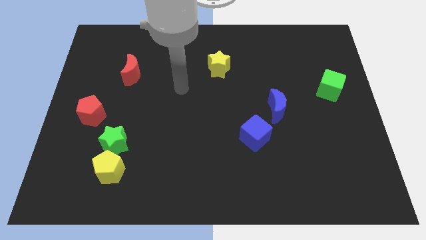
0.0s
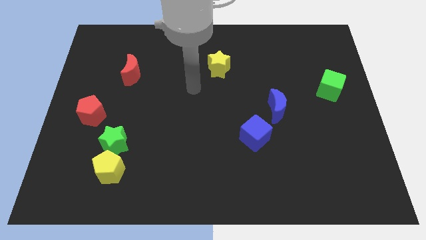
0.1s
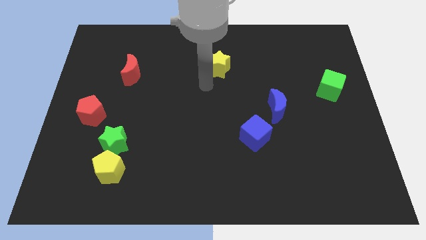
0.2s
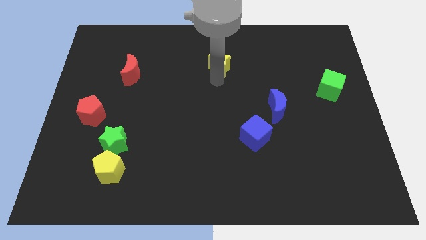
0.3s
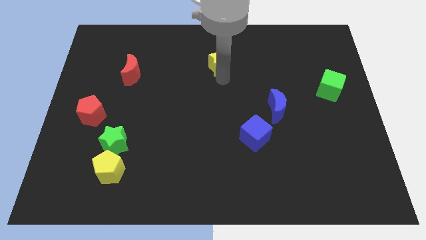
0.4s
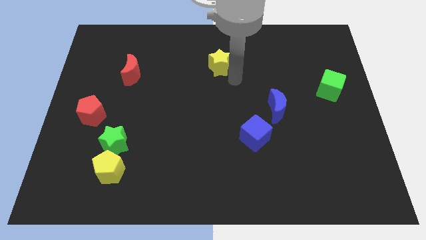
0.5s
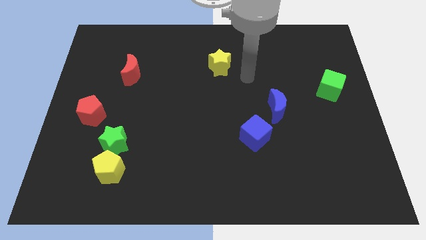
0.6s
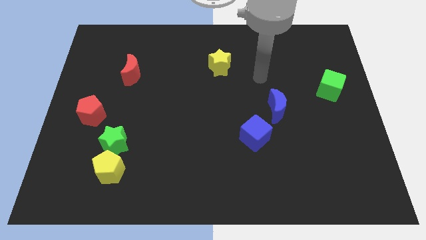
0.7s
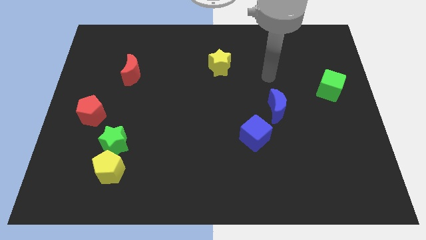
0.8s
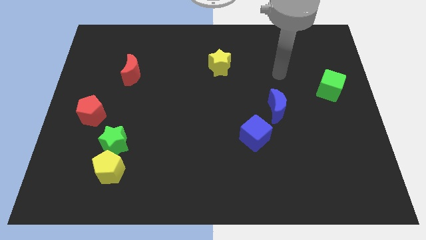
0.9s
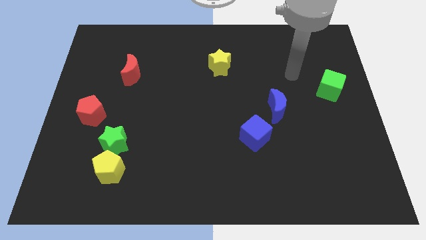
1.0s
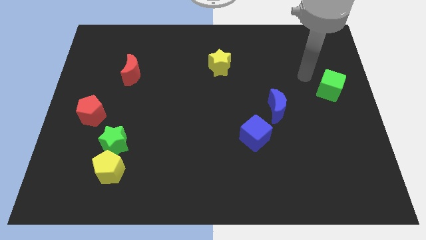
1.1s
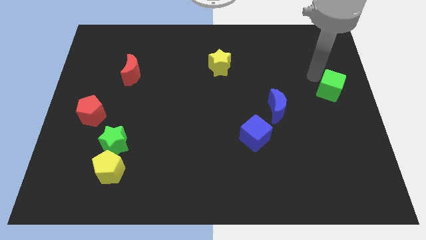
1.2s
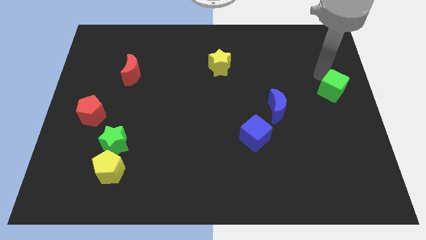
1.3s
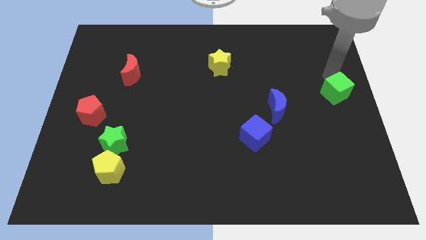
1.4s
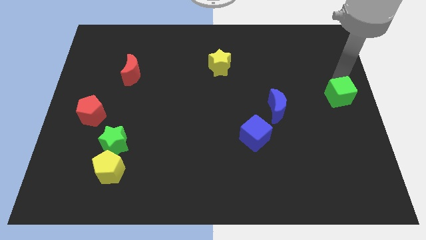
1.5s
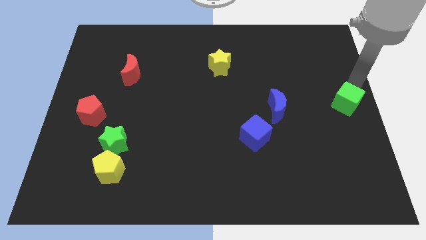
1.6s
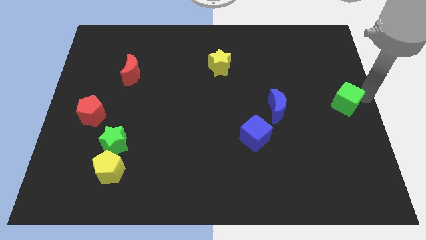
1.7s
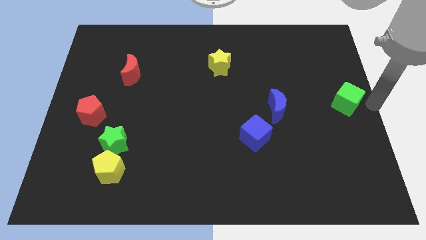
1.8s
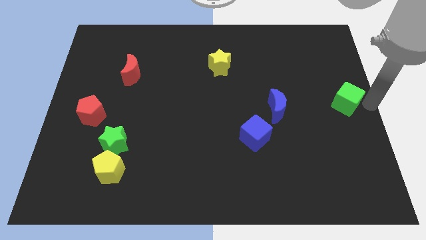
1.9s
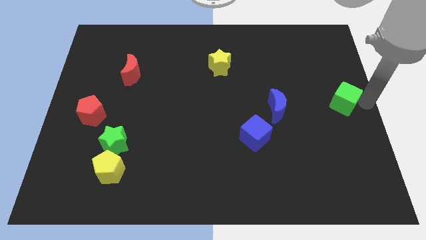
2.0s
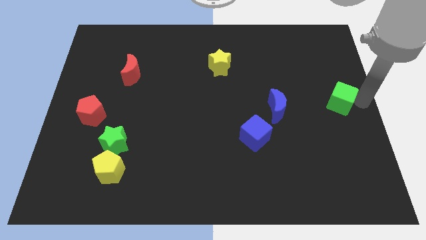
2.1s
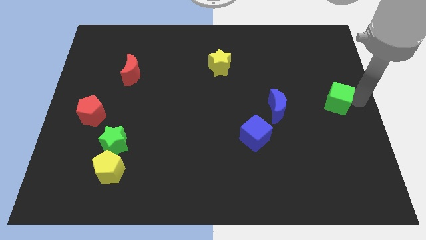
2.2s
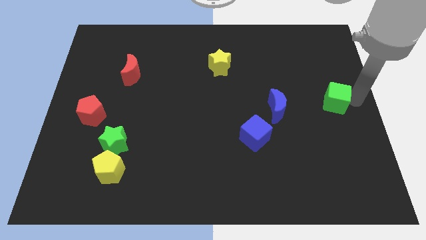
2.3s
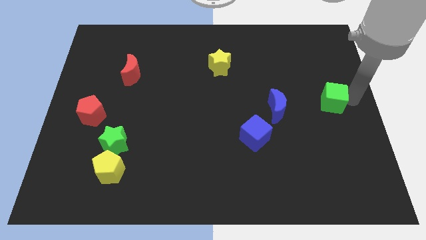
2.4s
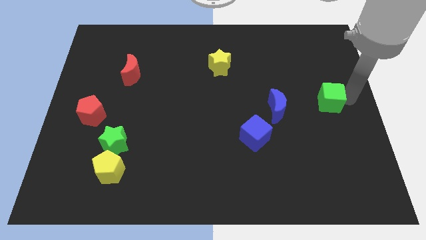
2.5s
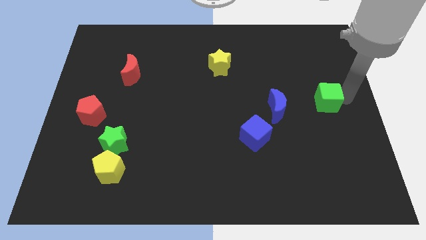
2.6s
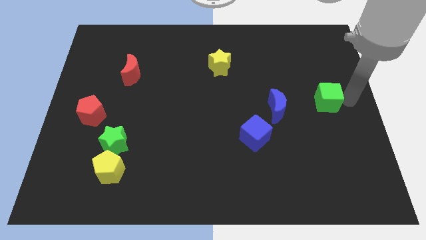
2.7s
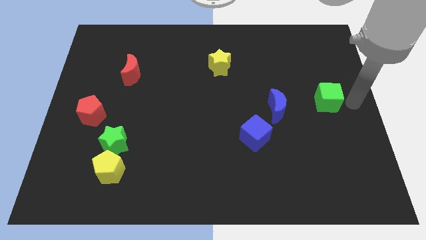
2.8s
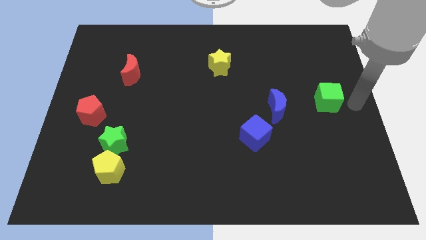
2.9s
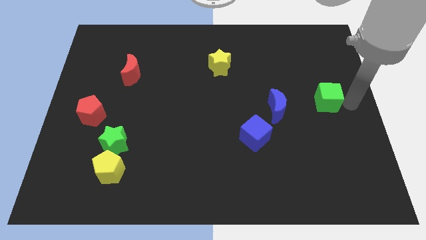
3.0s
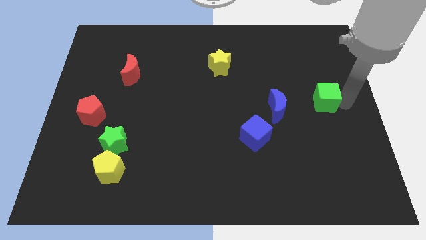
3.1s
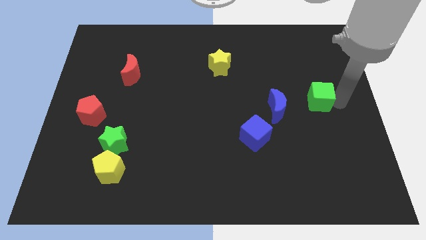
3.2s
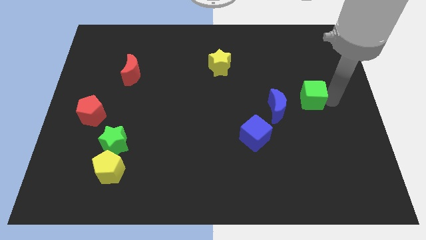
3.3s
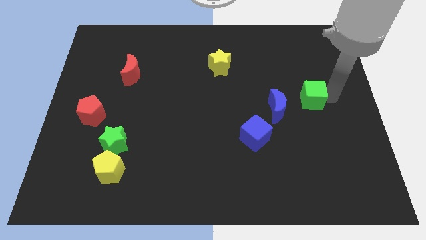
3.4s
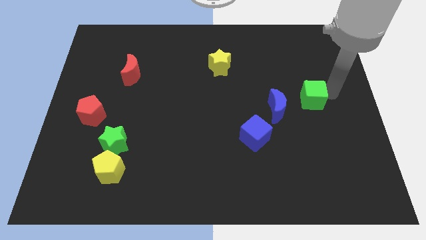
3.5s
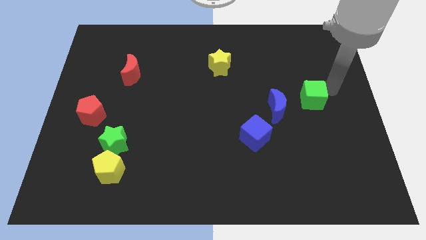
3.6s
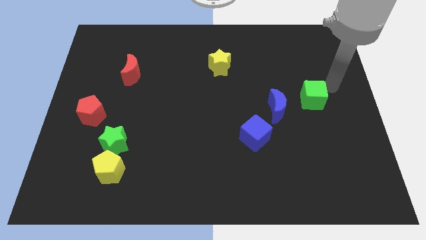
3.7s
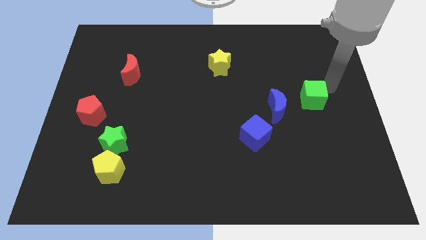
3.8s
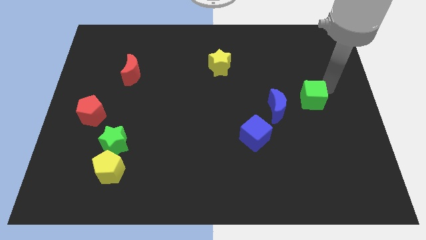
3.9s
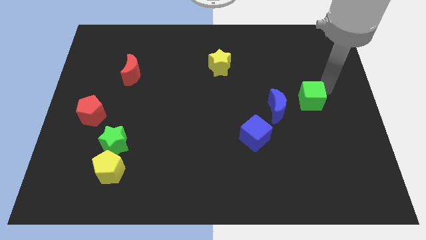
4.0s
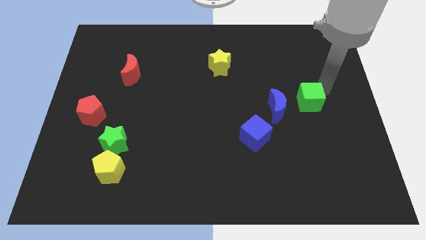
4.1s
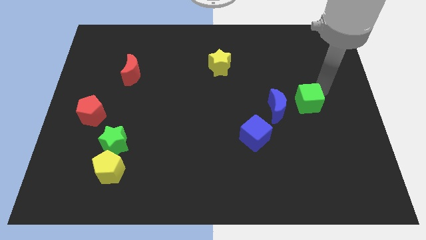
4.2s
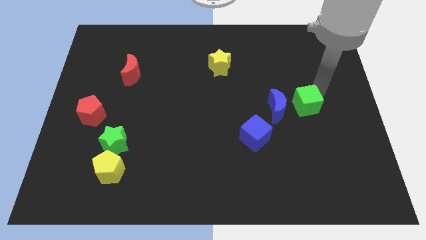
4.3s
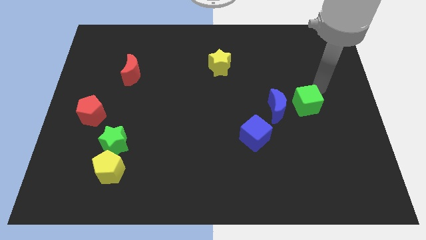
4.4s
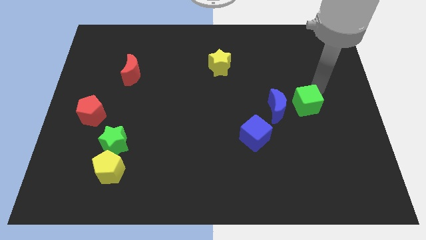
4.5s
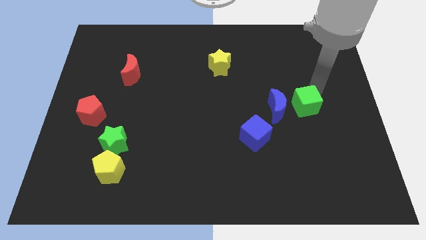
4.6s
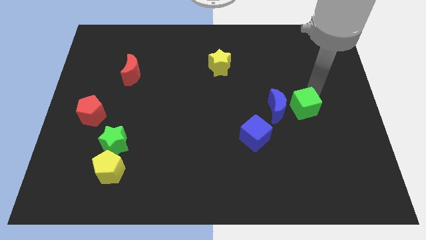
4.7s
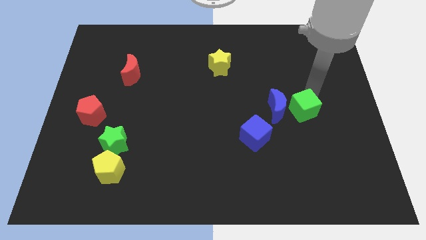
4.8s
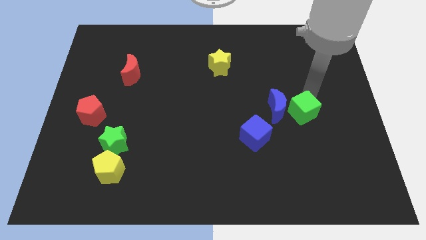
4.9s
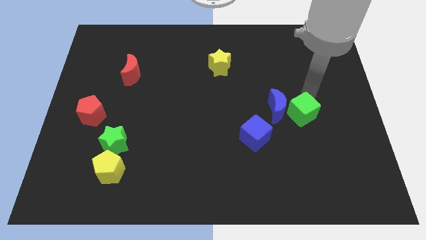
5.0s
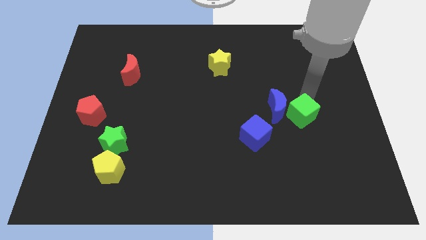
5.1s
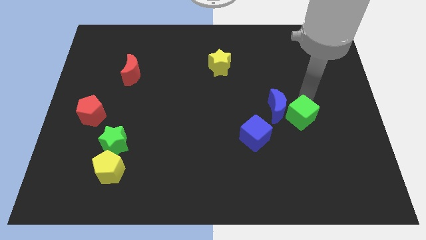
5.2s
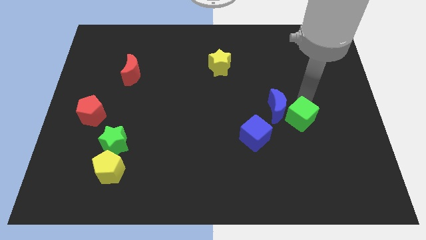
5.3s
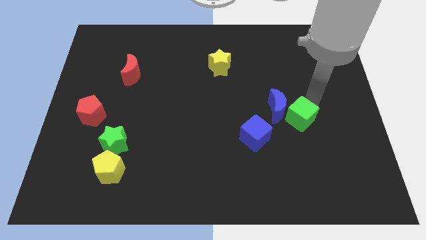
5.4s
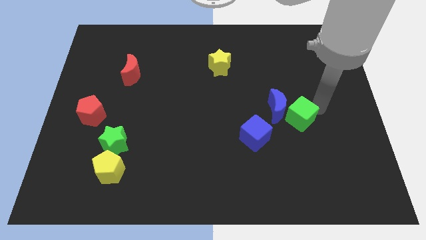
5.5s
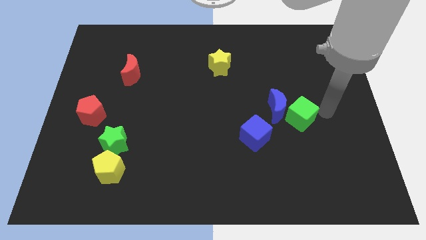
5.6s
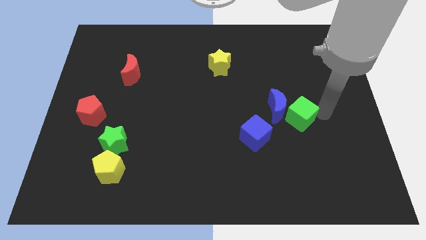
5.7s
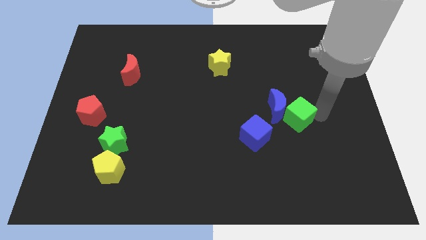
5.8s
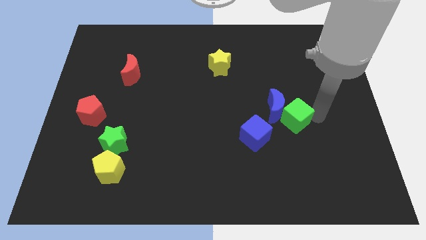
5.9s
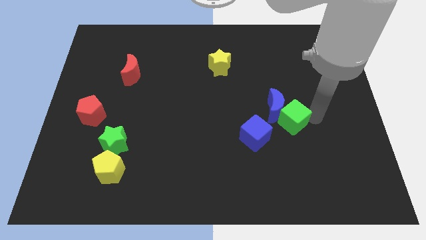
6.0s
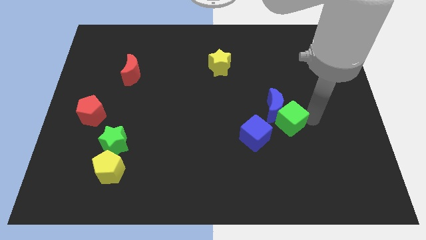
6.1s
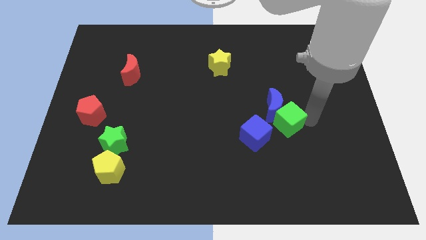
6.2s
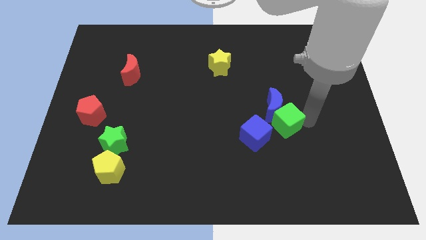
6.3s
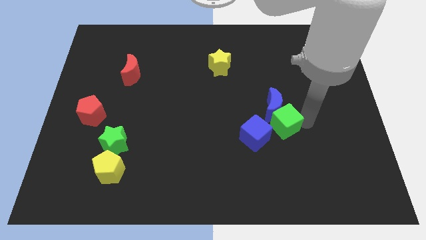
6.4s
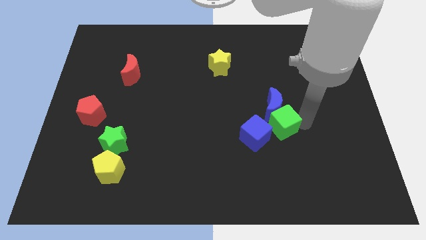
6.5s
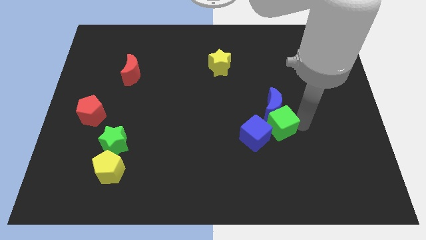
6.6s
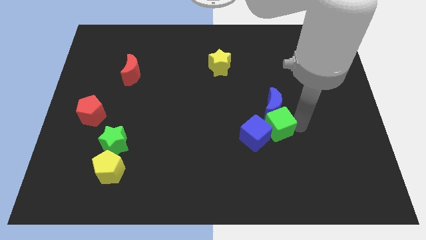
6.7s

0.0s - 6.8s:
slide the green cube towards the blue cube

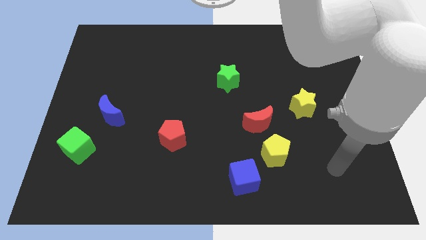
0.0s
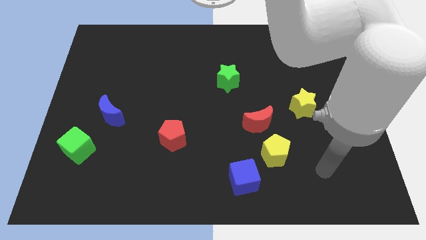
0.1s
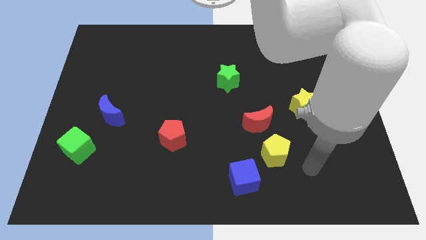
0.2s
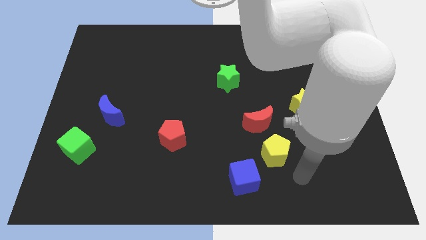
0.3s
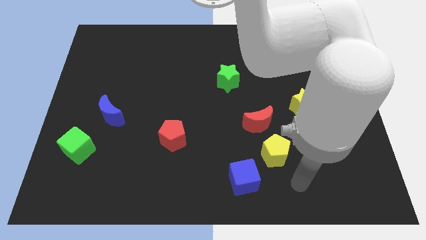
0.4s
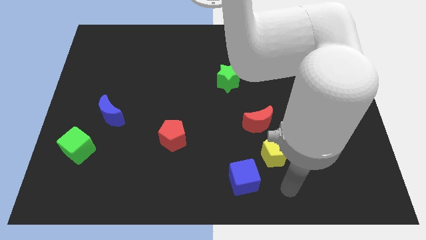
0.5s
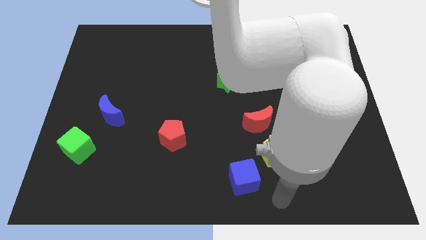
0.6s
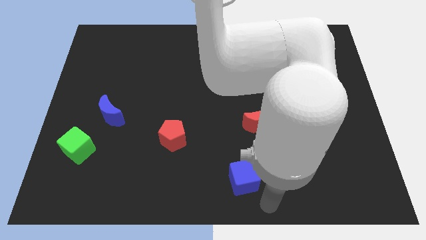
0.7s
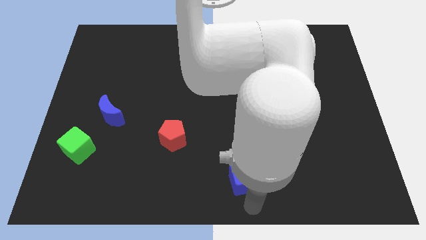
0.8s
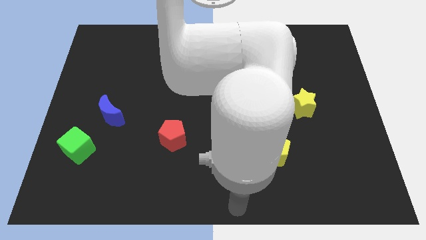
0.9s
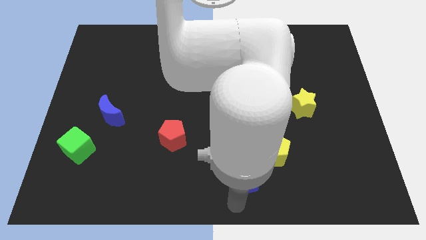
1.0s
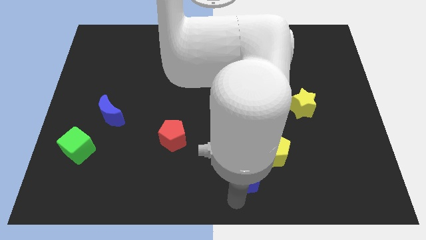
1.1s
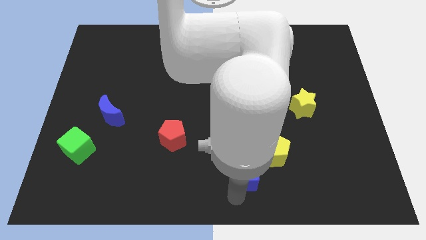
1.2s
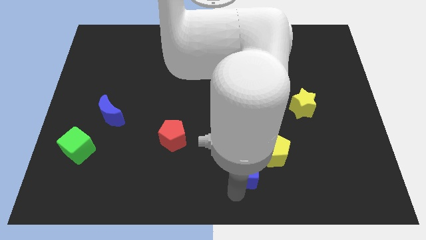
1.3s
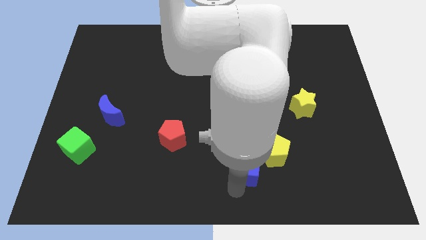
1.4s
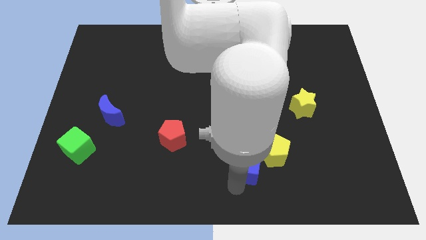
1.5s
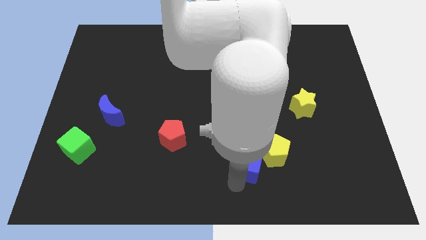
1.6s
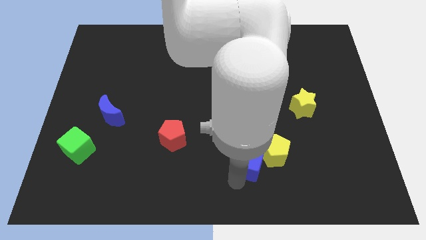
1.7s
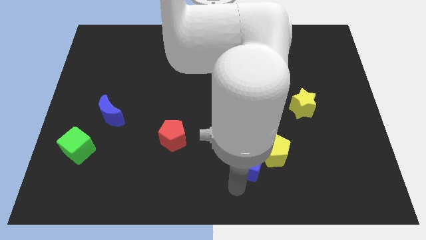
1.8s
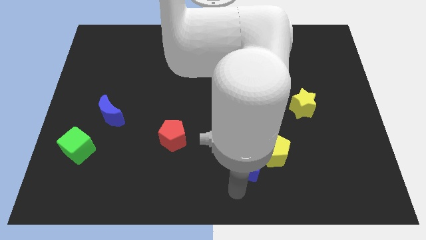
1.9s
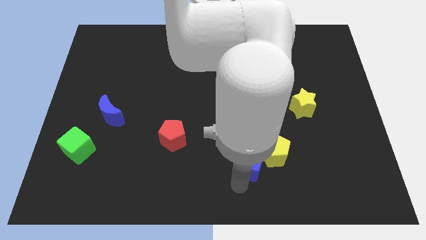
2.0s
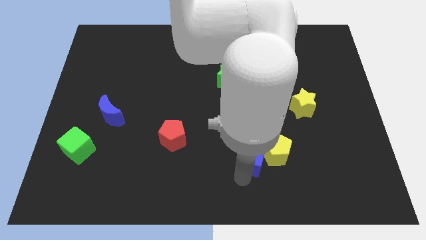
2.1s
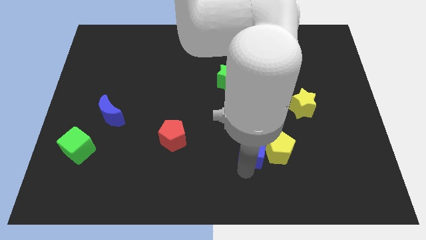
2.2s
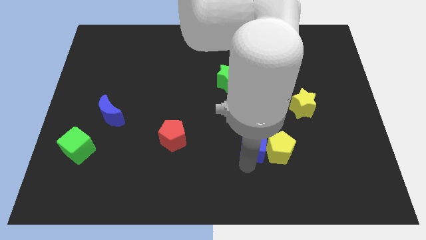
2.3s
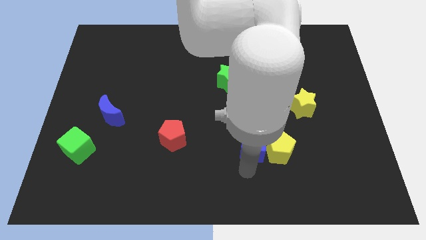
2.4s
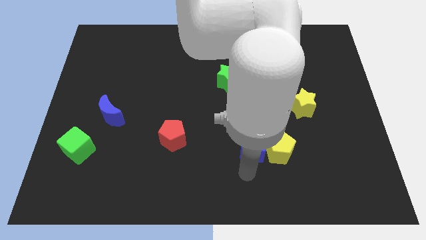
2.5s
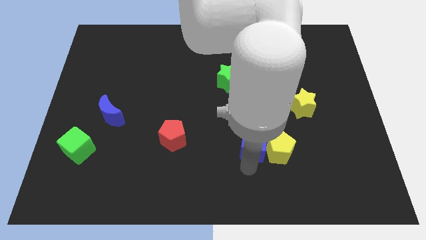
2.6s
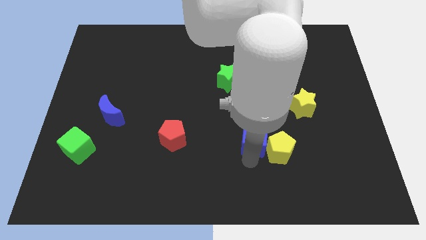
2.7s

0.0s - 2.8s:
slide the blue cube towards the red moon
